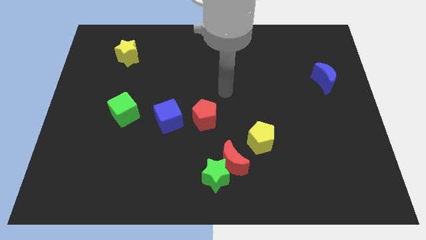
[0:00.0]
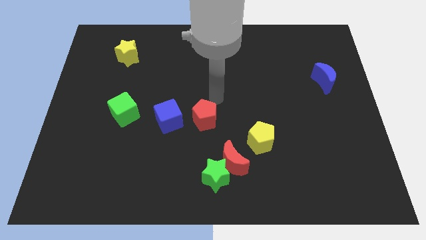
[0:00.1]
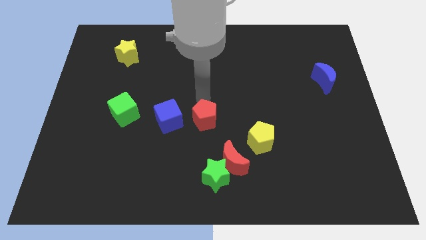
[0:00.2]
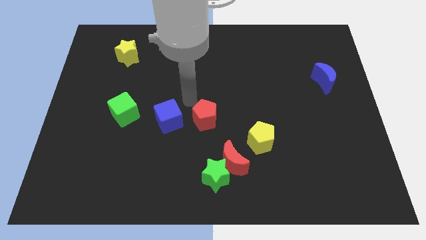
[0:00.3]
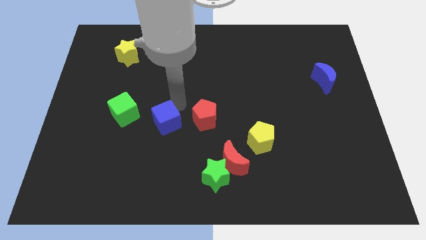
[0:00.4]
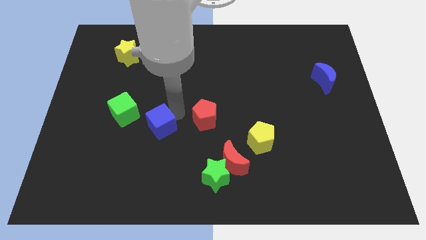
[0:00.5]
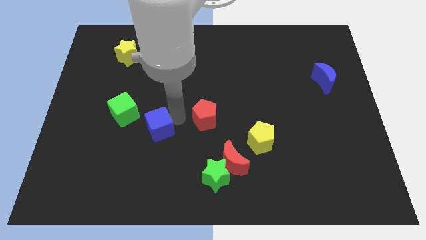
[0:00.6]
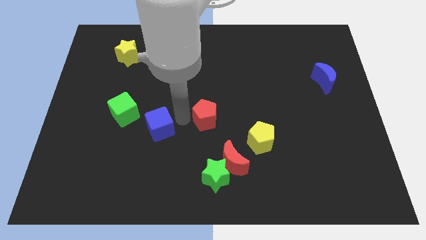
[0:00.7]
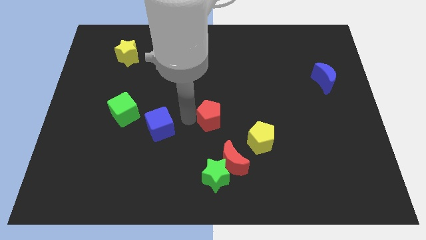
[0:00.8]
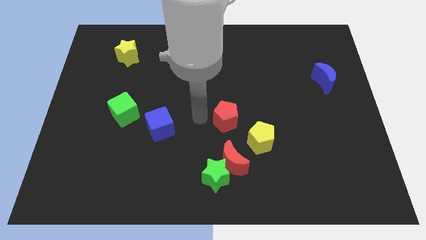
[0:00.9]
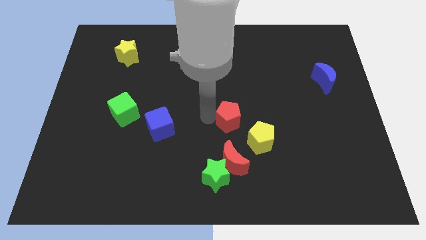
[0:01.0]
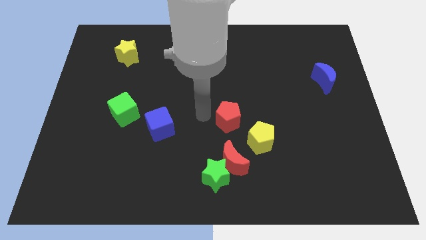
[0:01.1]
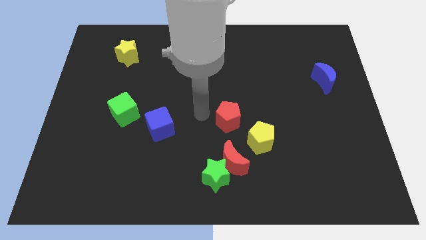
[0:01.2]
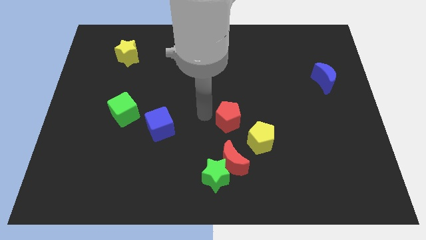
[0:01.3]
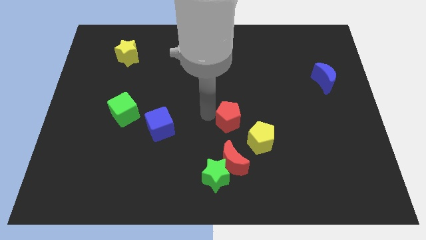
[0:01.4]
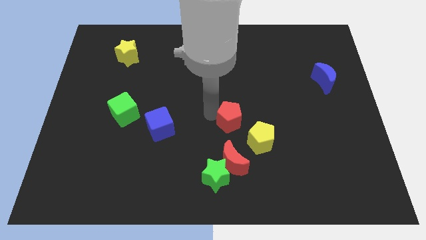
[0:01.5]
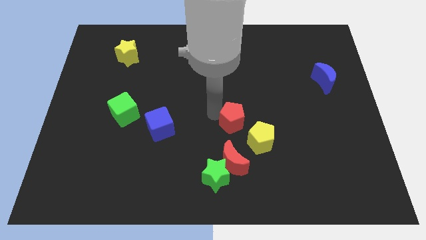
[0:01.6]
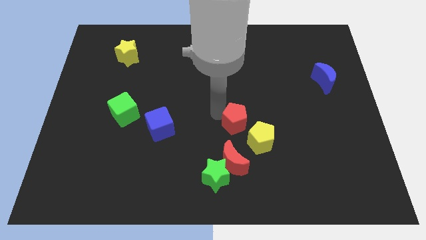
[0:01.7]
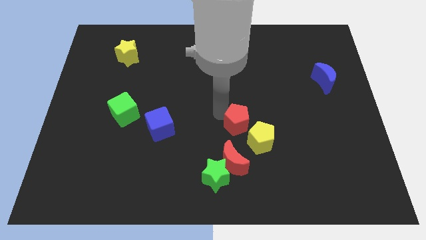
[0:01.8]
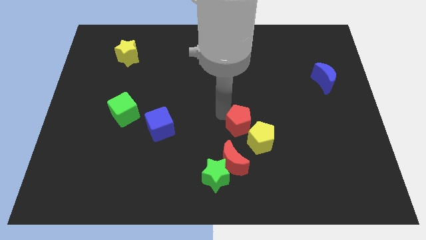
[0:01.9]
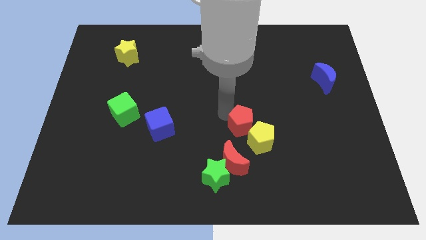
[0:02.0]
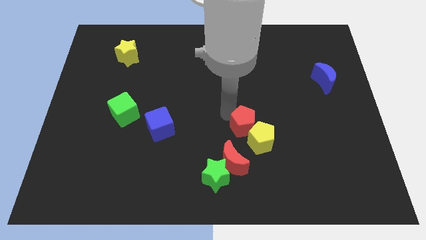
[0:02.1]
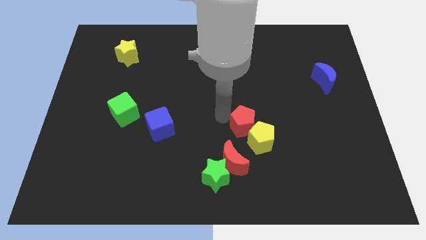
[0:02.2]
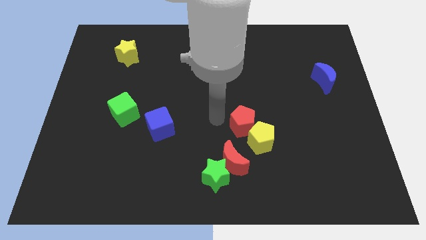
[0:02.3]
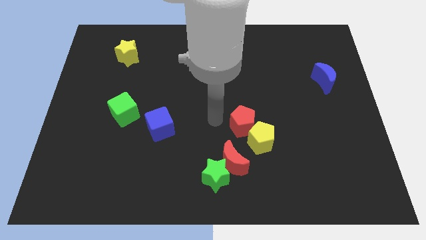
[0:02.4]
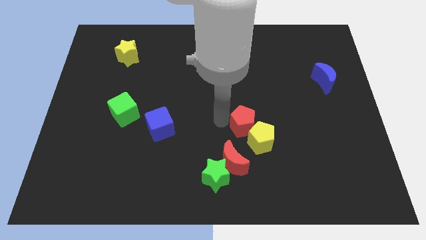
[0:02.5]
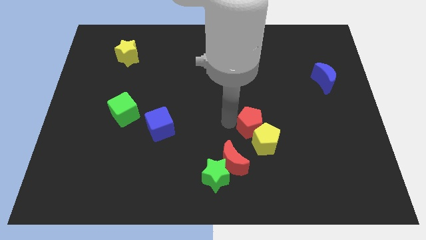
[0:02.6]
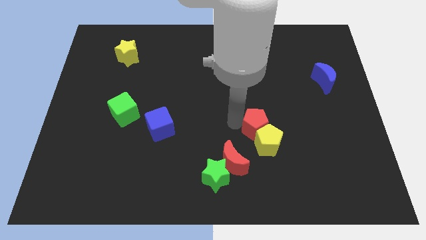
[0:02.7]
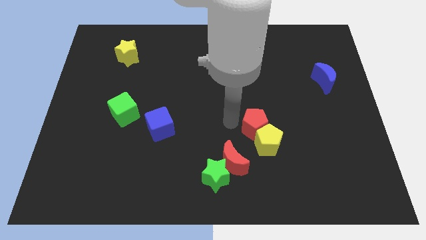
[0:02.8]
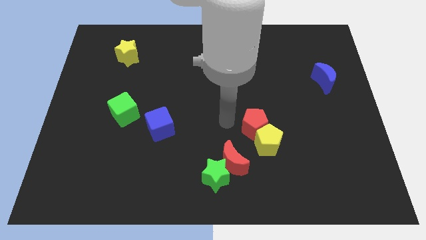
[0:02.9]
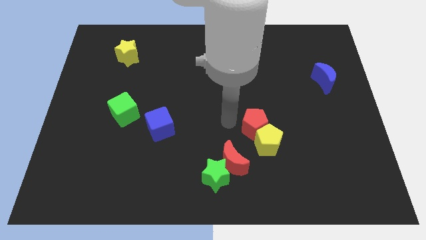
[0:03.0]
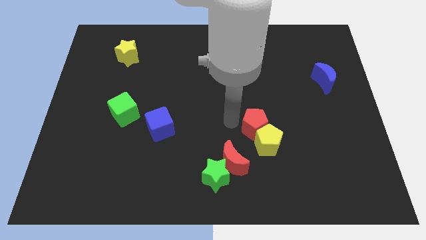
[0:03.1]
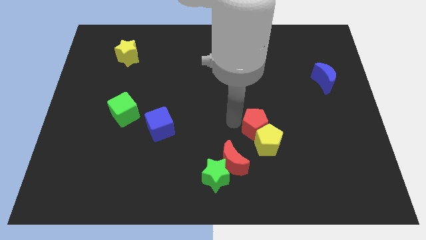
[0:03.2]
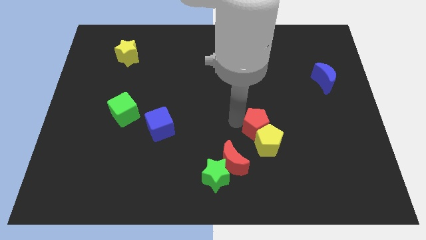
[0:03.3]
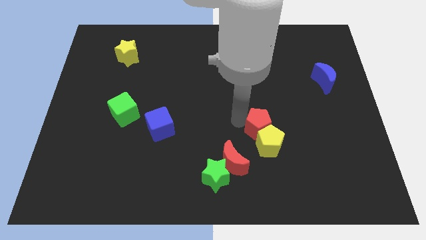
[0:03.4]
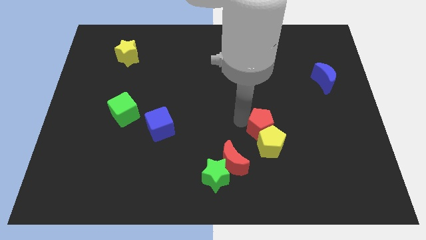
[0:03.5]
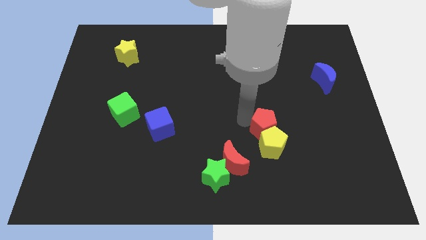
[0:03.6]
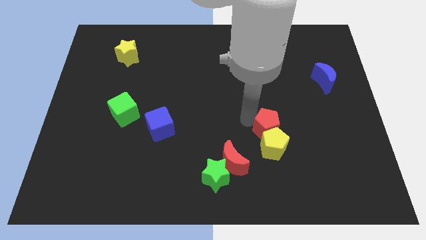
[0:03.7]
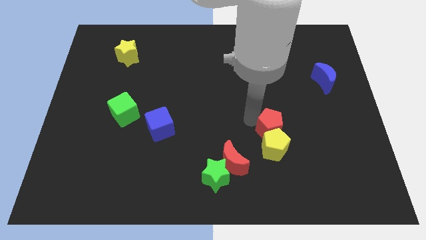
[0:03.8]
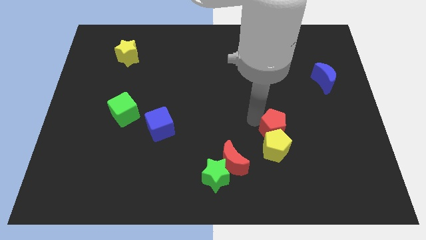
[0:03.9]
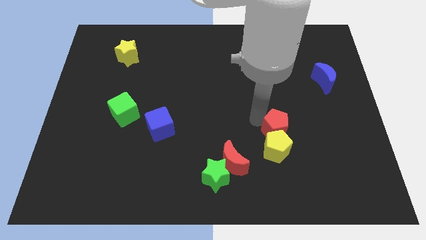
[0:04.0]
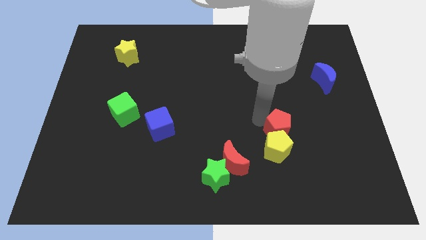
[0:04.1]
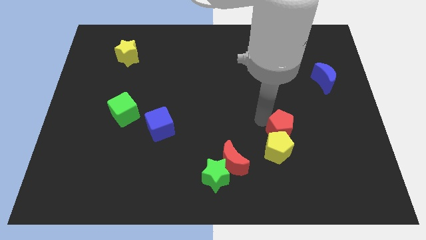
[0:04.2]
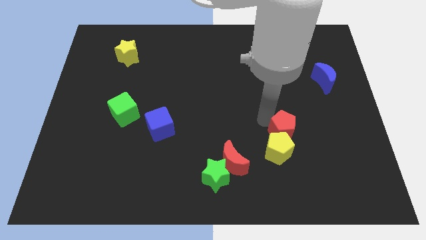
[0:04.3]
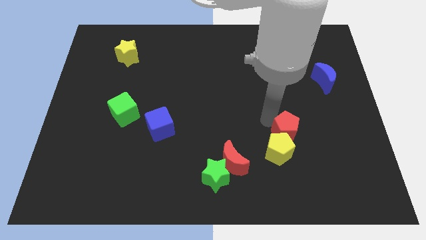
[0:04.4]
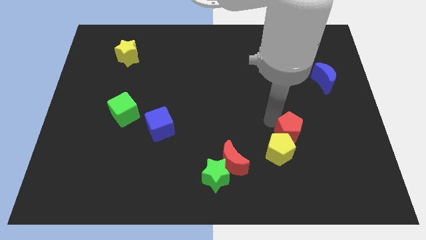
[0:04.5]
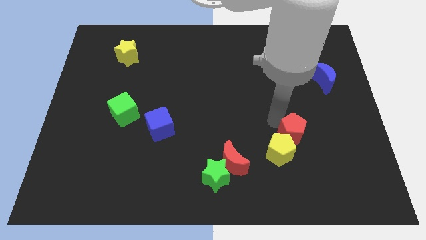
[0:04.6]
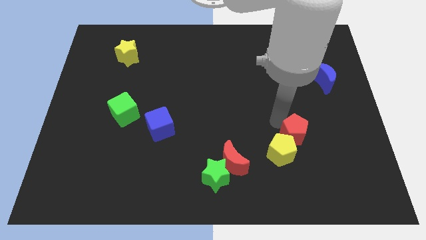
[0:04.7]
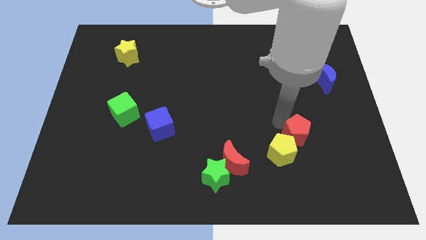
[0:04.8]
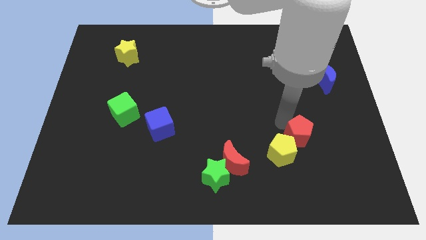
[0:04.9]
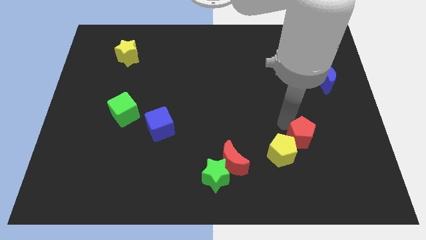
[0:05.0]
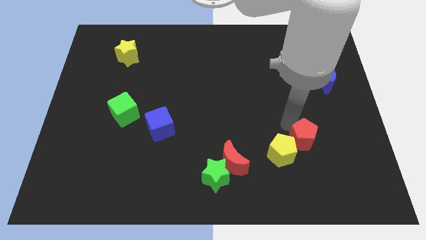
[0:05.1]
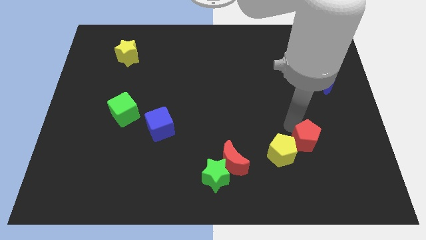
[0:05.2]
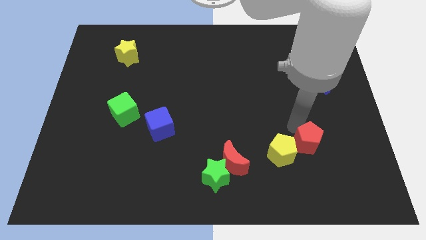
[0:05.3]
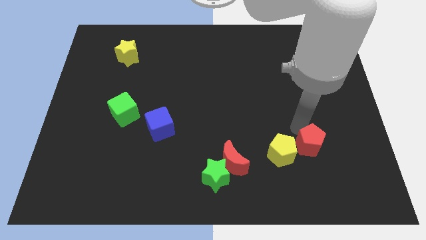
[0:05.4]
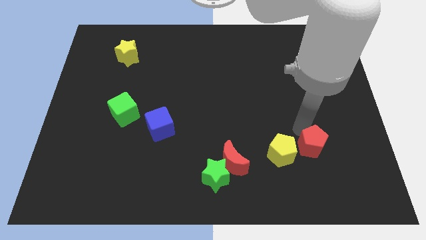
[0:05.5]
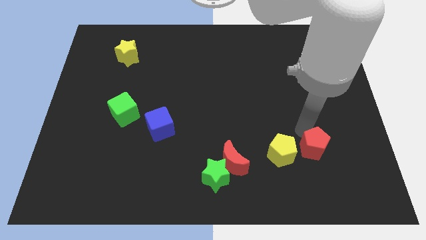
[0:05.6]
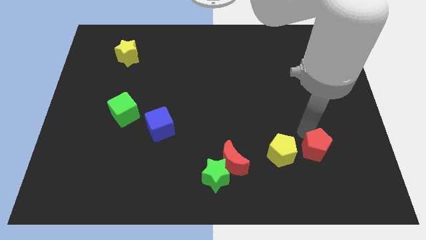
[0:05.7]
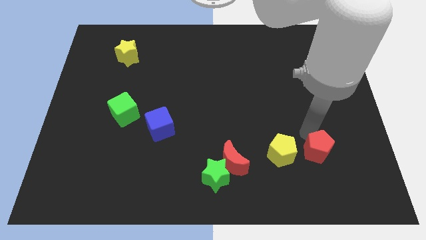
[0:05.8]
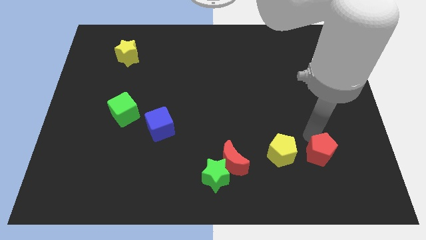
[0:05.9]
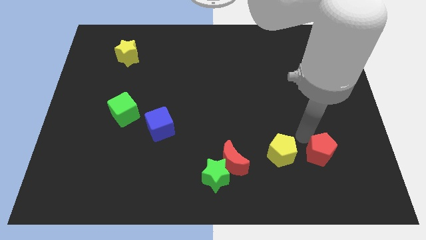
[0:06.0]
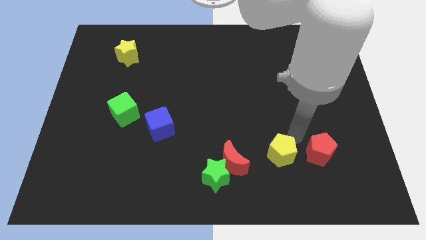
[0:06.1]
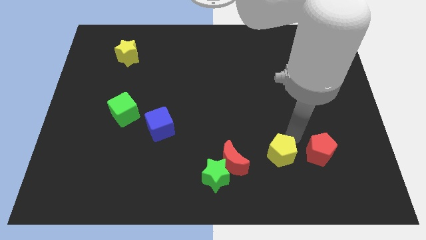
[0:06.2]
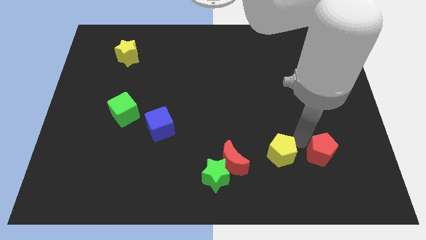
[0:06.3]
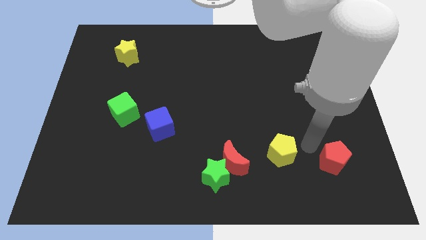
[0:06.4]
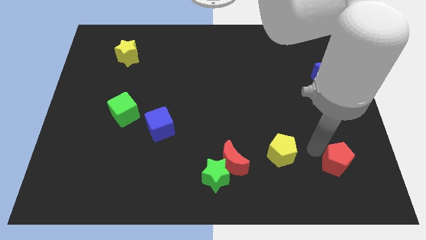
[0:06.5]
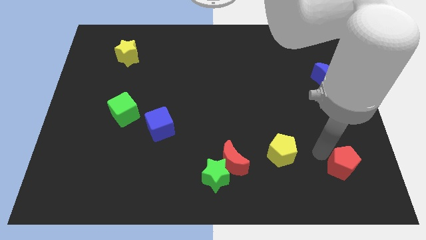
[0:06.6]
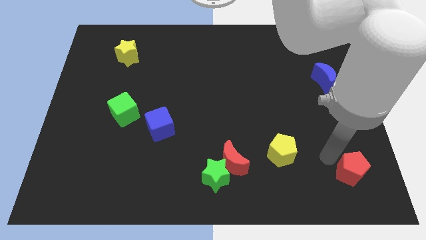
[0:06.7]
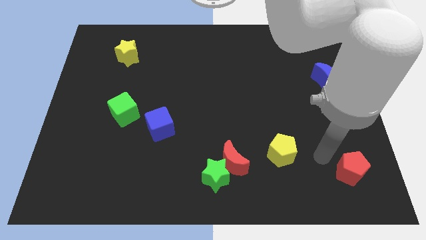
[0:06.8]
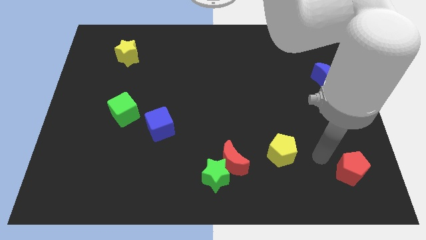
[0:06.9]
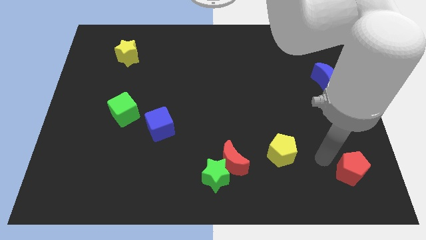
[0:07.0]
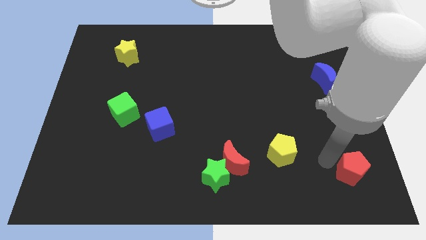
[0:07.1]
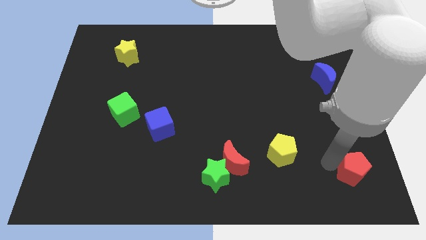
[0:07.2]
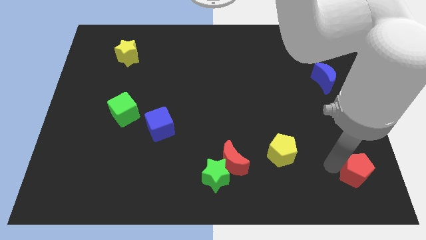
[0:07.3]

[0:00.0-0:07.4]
move the red pentagon to the bottom right corner
